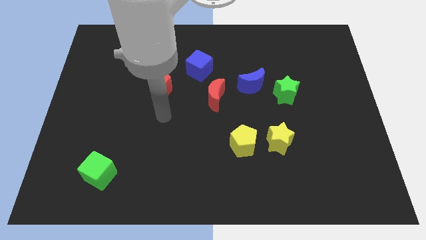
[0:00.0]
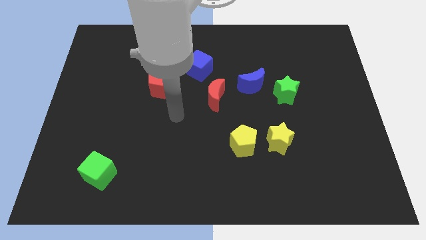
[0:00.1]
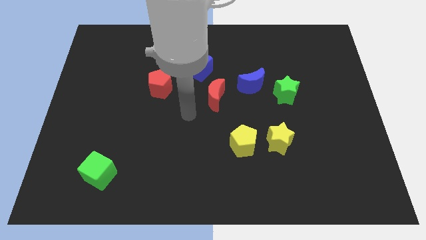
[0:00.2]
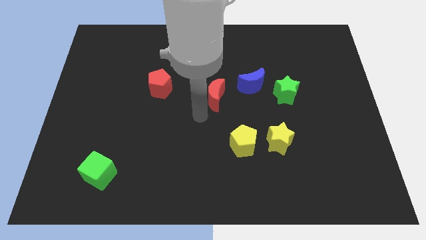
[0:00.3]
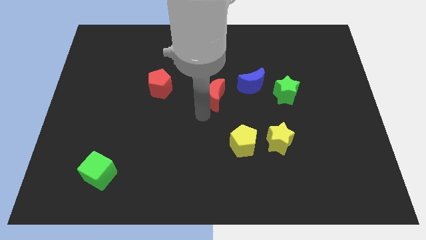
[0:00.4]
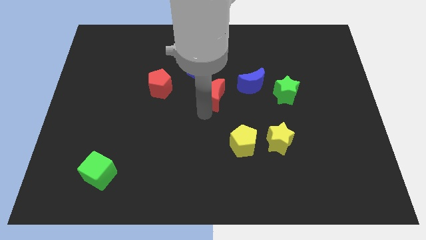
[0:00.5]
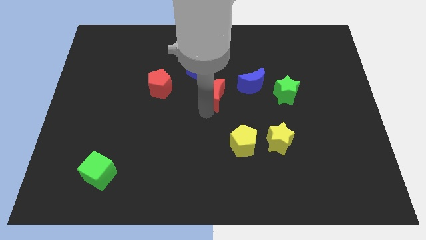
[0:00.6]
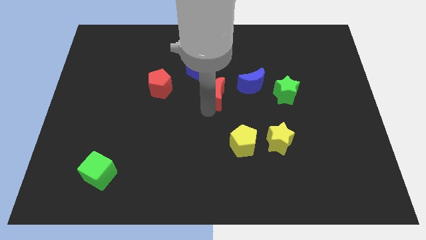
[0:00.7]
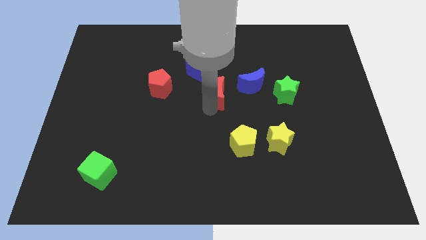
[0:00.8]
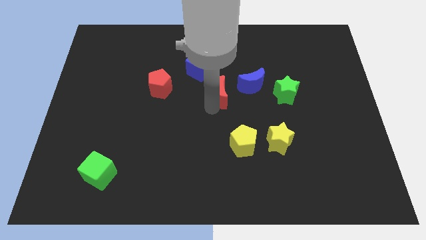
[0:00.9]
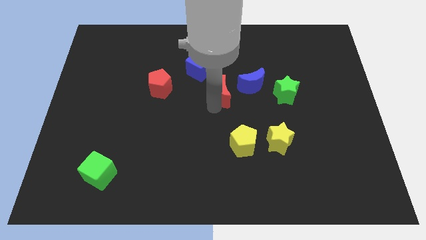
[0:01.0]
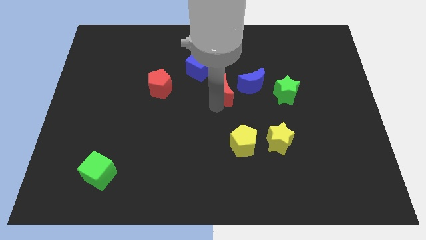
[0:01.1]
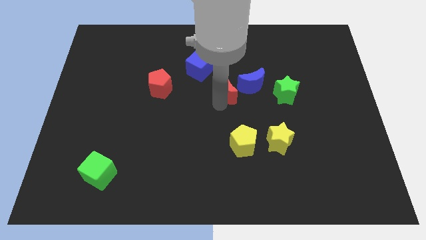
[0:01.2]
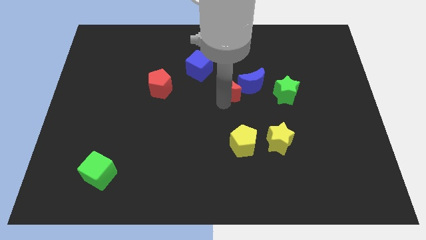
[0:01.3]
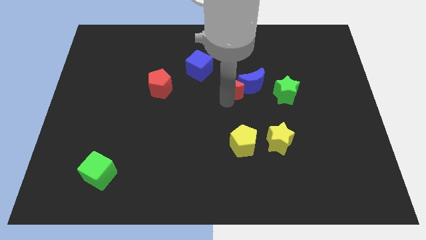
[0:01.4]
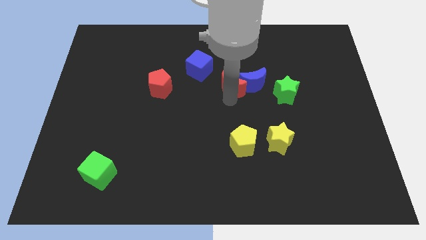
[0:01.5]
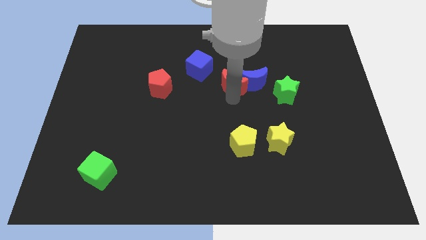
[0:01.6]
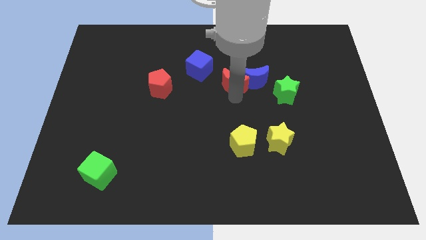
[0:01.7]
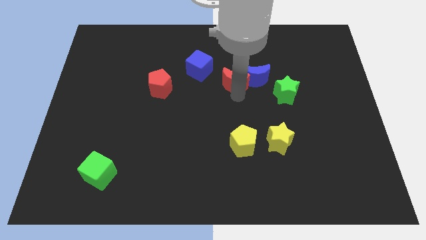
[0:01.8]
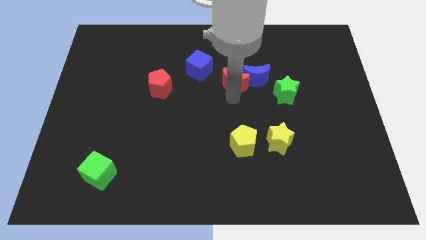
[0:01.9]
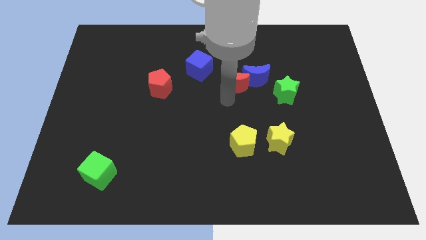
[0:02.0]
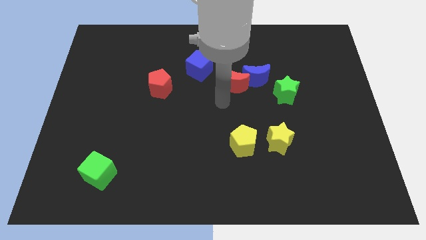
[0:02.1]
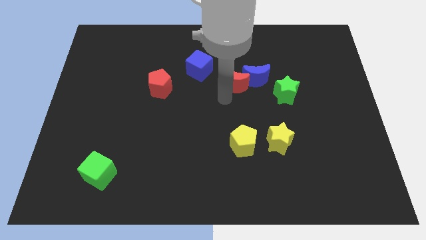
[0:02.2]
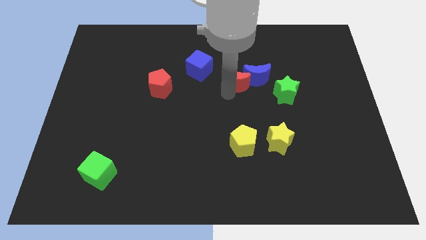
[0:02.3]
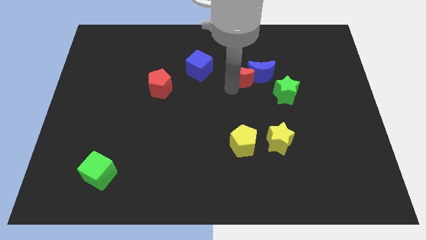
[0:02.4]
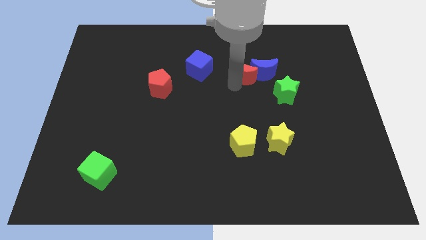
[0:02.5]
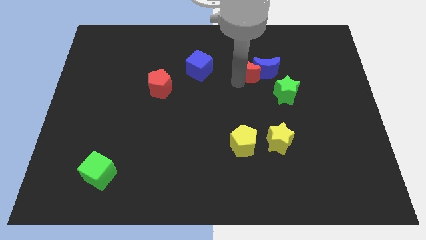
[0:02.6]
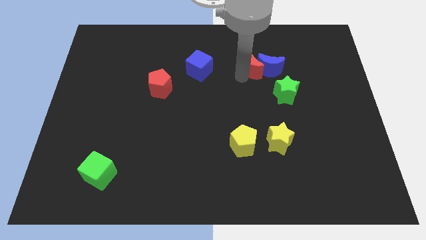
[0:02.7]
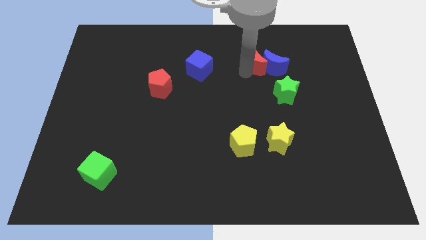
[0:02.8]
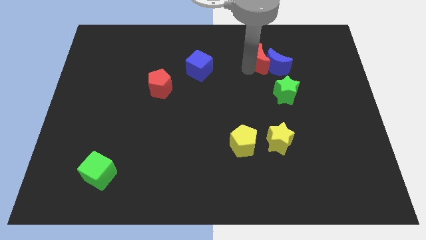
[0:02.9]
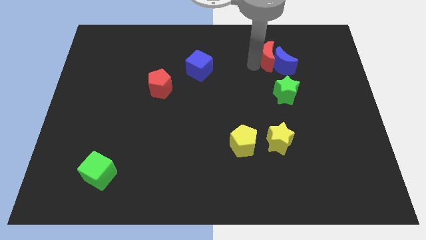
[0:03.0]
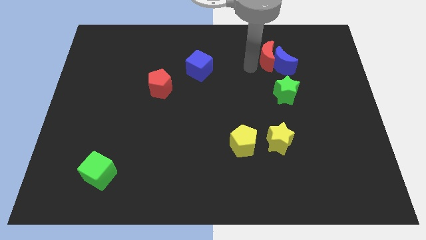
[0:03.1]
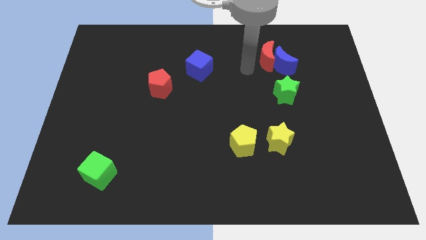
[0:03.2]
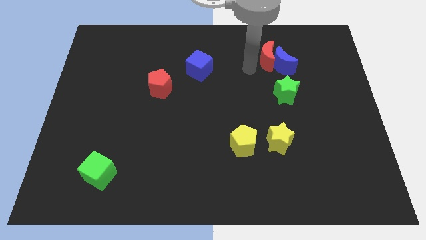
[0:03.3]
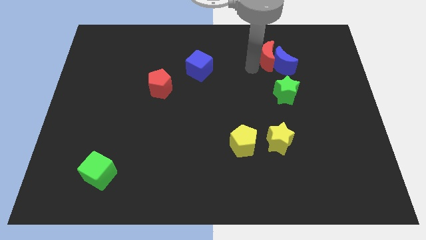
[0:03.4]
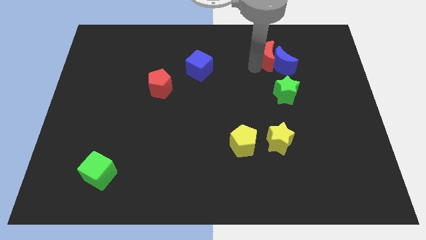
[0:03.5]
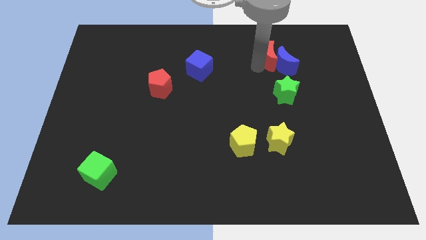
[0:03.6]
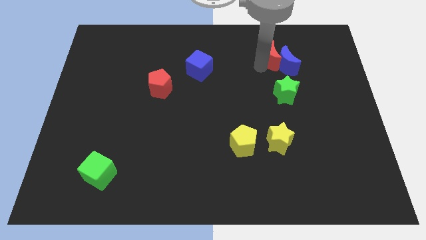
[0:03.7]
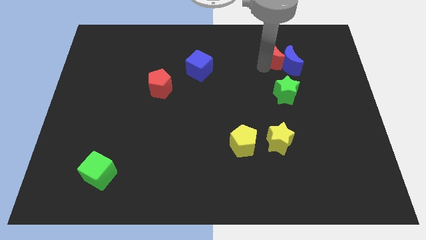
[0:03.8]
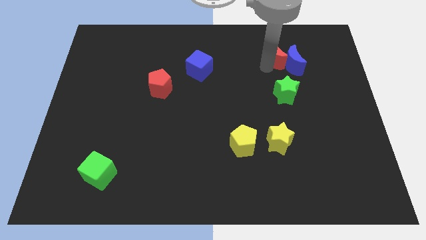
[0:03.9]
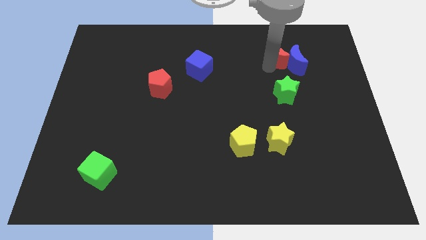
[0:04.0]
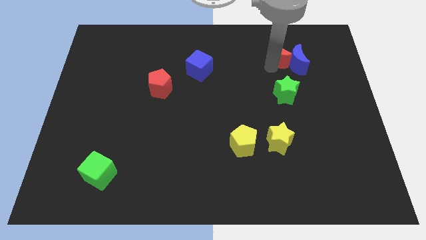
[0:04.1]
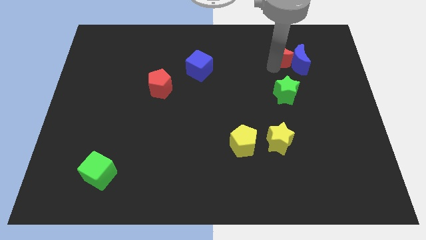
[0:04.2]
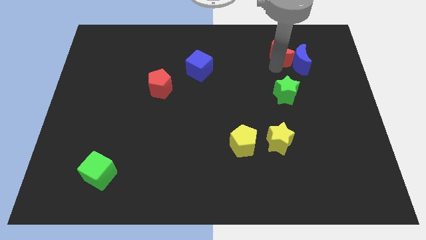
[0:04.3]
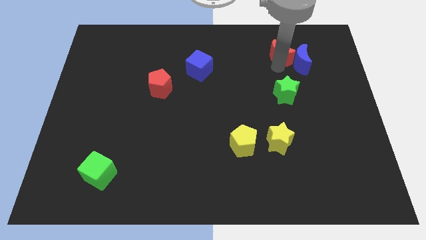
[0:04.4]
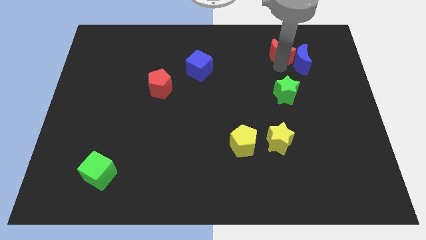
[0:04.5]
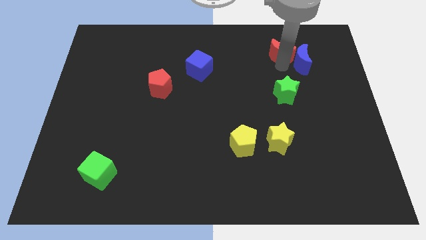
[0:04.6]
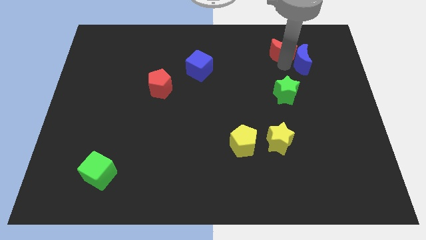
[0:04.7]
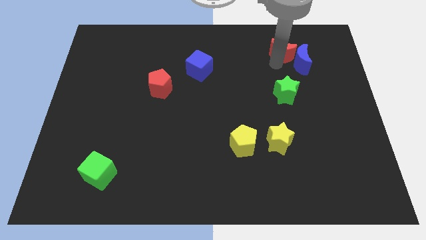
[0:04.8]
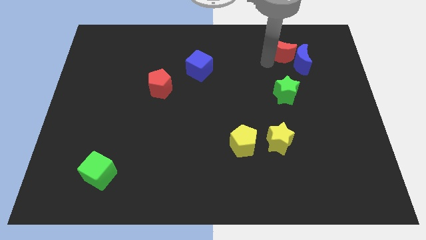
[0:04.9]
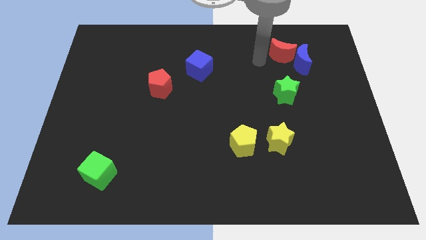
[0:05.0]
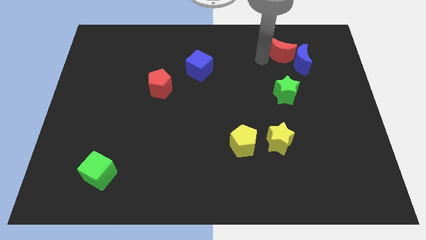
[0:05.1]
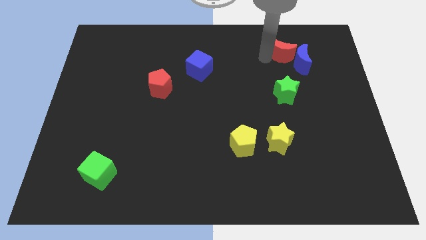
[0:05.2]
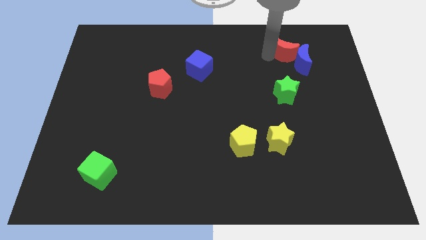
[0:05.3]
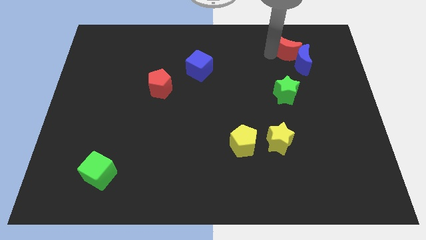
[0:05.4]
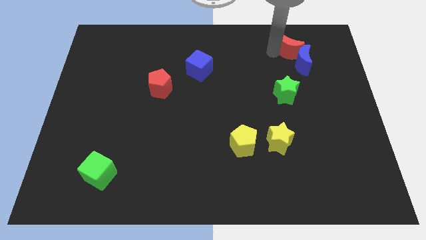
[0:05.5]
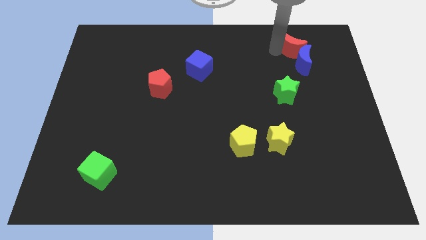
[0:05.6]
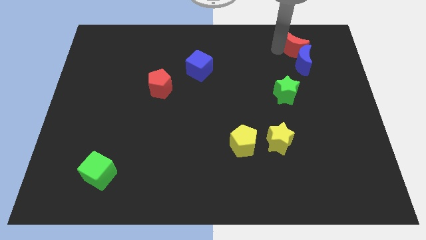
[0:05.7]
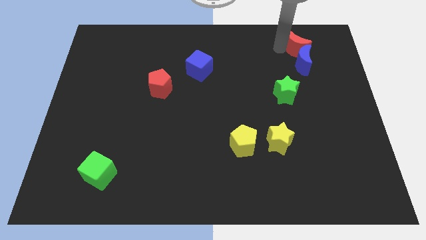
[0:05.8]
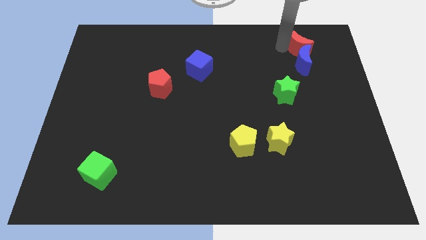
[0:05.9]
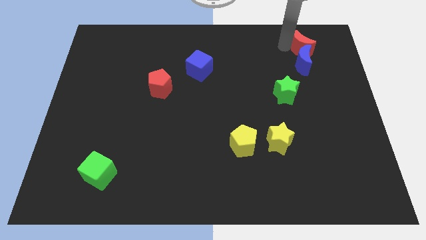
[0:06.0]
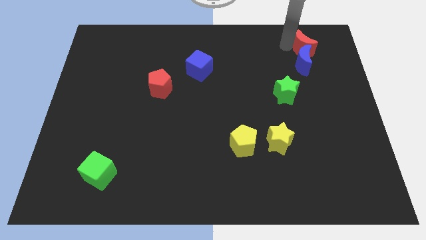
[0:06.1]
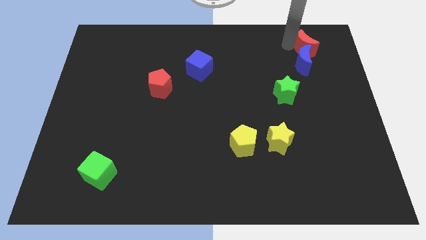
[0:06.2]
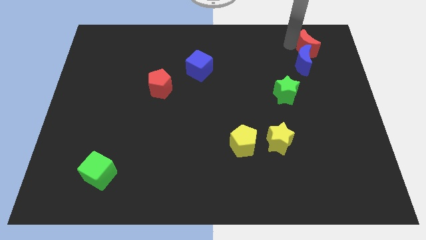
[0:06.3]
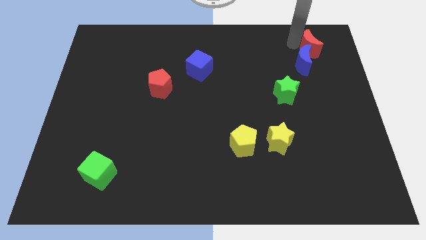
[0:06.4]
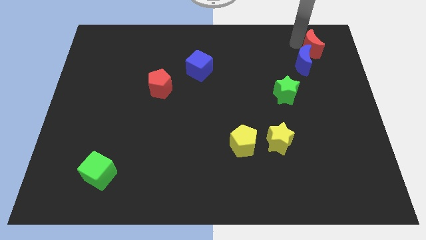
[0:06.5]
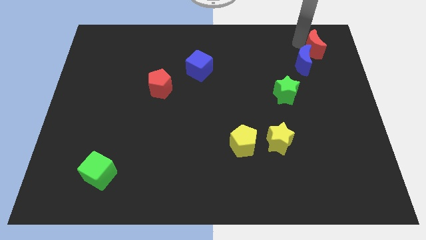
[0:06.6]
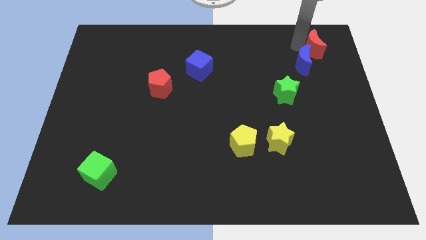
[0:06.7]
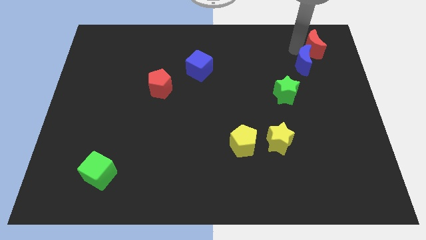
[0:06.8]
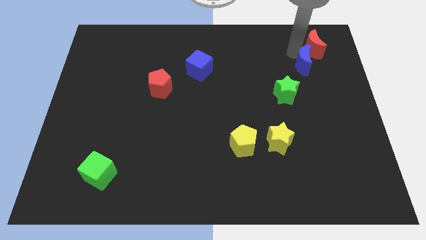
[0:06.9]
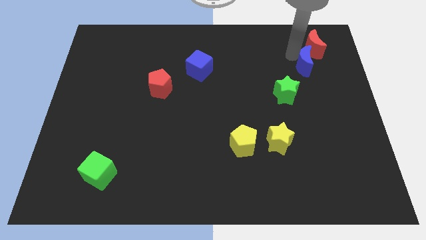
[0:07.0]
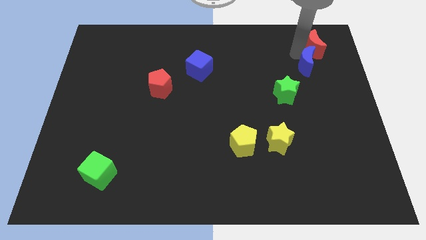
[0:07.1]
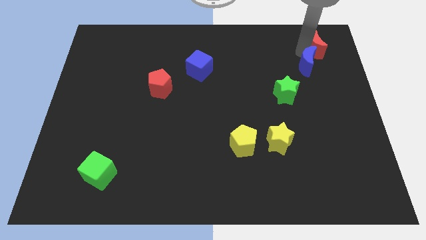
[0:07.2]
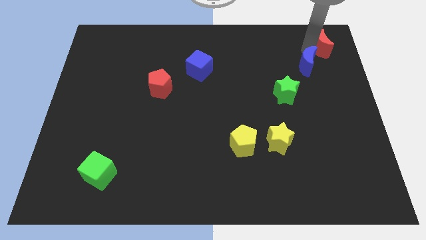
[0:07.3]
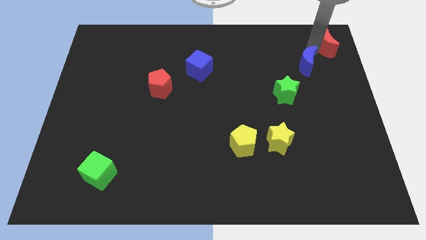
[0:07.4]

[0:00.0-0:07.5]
push the red moon to the top right
